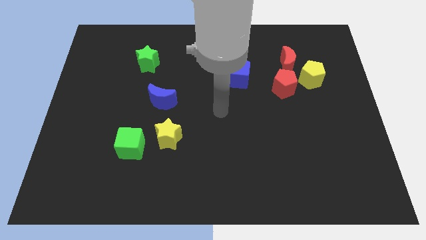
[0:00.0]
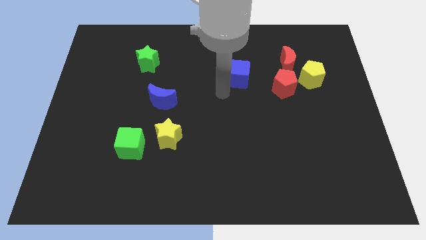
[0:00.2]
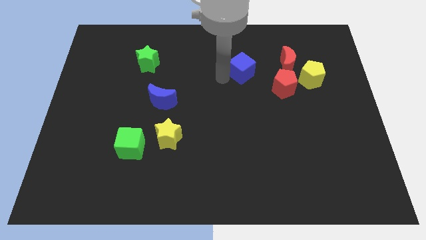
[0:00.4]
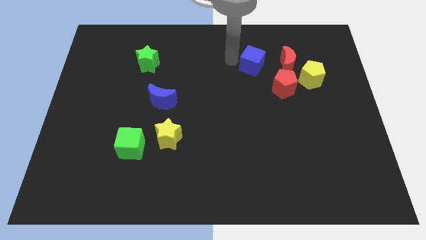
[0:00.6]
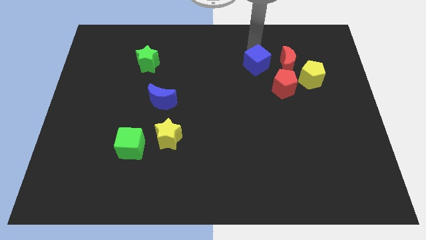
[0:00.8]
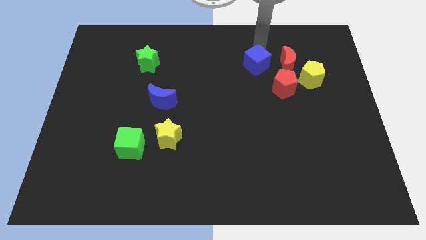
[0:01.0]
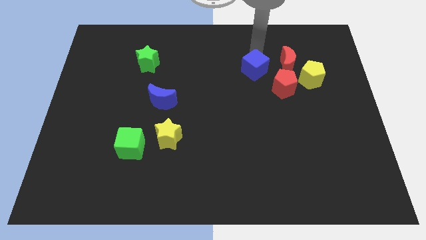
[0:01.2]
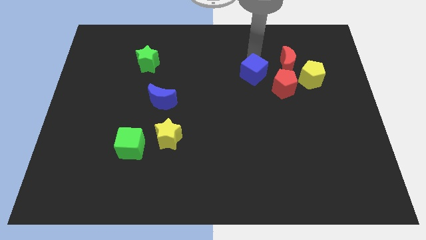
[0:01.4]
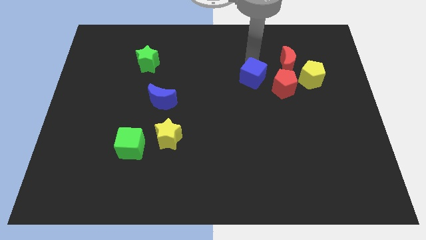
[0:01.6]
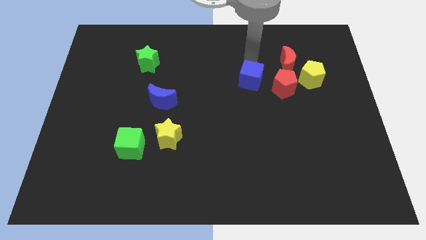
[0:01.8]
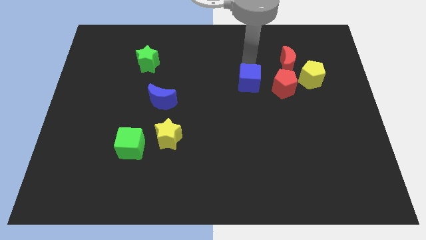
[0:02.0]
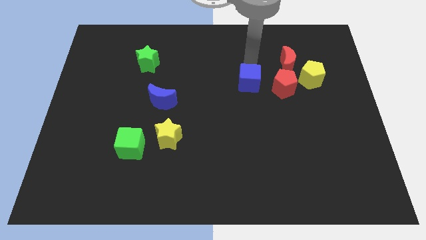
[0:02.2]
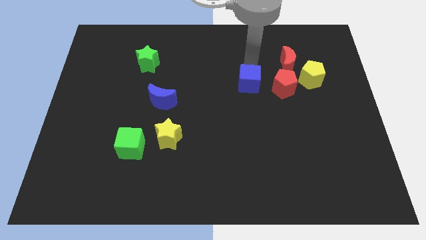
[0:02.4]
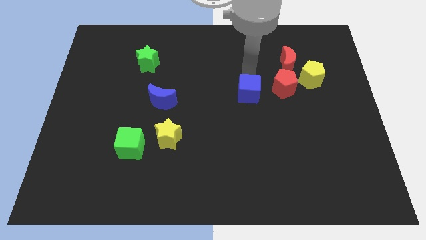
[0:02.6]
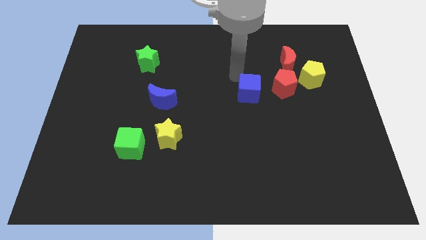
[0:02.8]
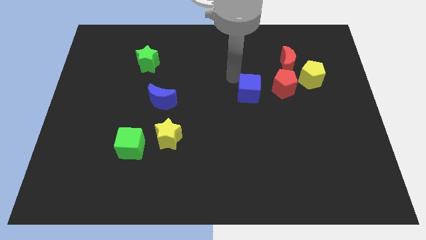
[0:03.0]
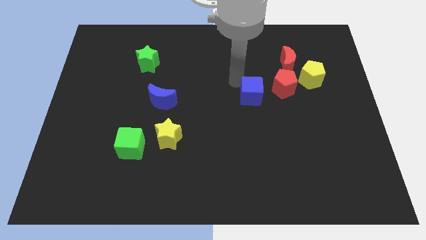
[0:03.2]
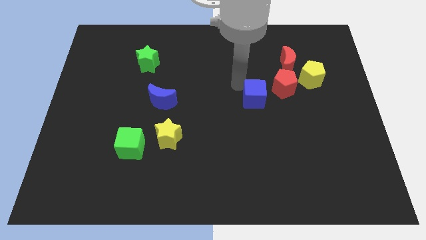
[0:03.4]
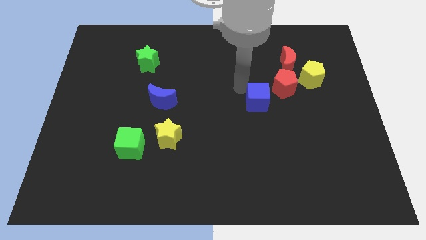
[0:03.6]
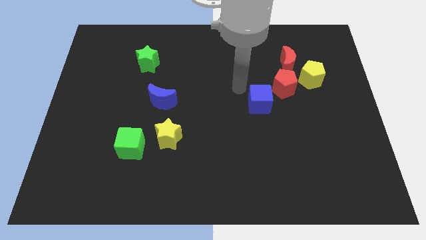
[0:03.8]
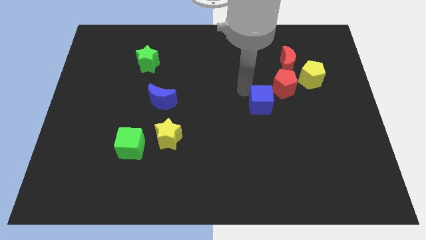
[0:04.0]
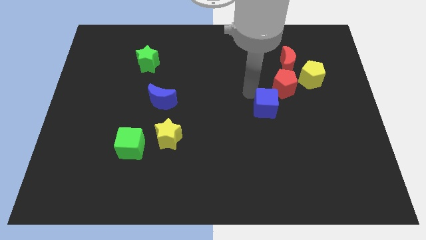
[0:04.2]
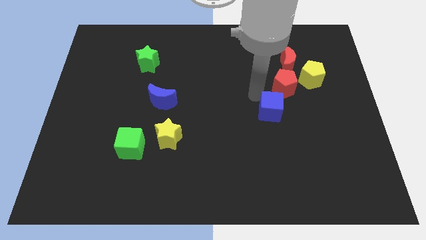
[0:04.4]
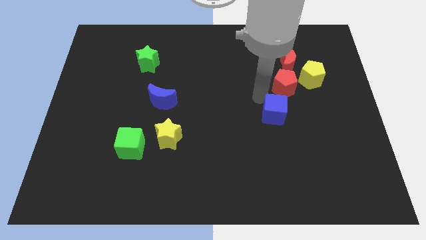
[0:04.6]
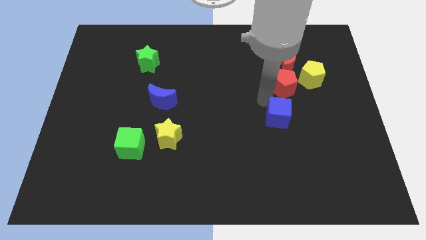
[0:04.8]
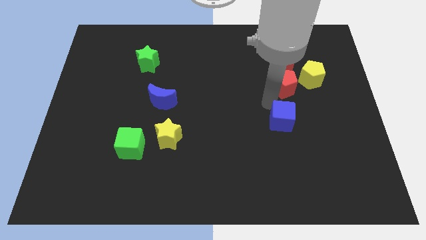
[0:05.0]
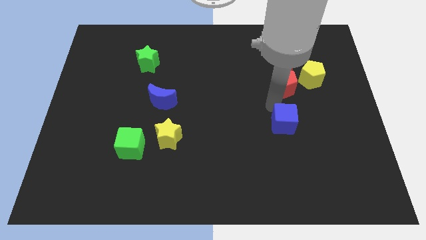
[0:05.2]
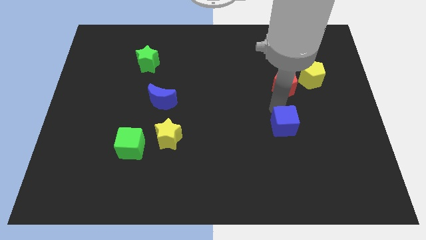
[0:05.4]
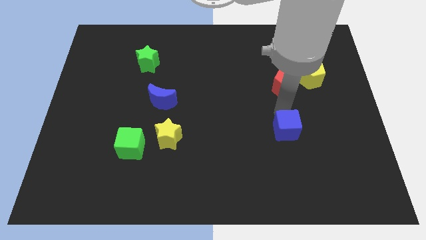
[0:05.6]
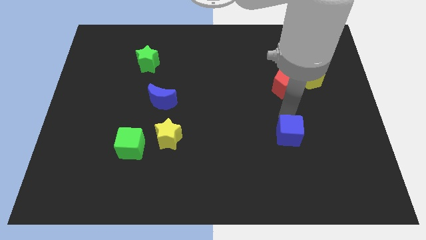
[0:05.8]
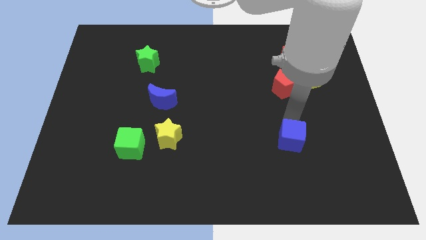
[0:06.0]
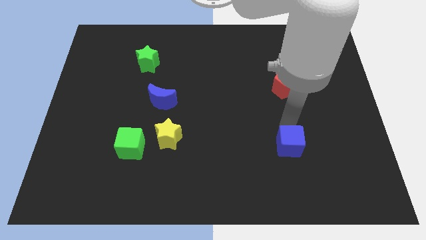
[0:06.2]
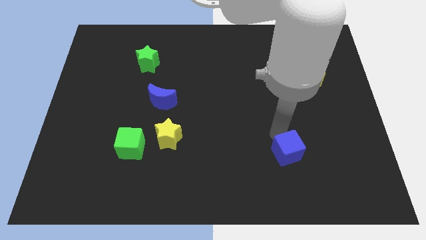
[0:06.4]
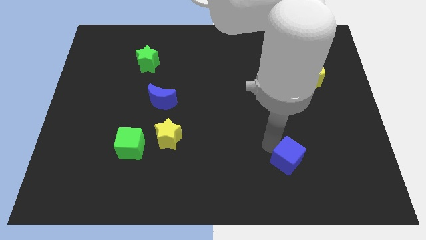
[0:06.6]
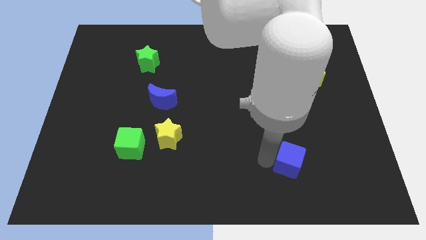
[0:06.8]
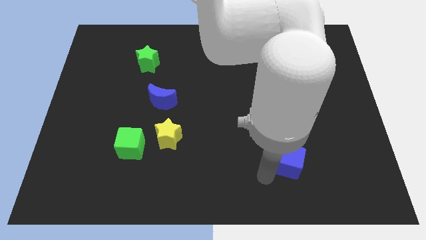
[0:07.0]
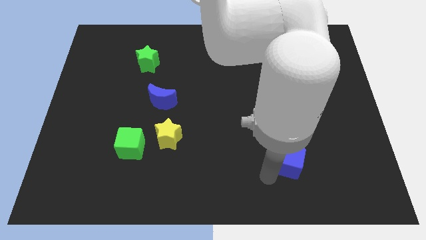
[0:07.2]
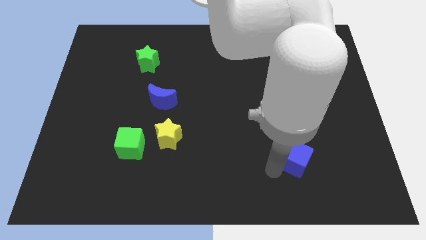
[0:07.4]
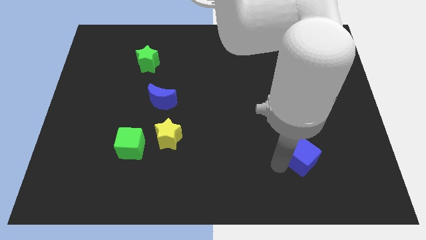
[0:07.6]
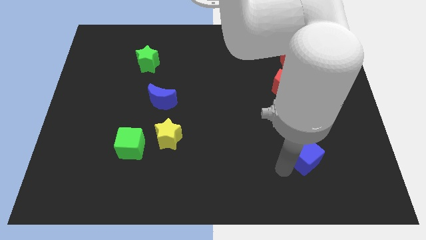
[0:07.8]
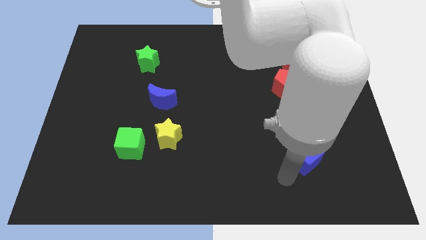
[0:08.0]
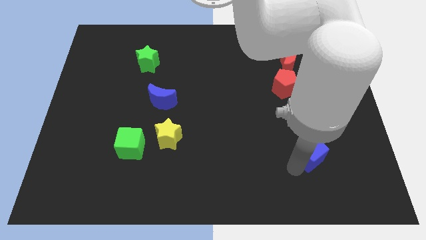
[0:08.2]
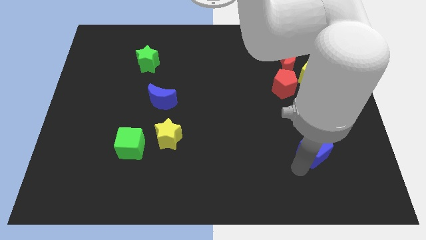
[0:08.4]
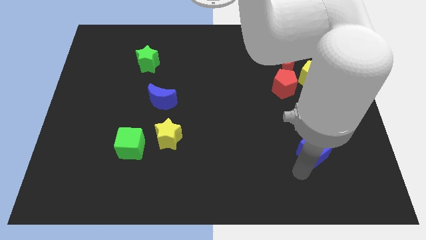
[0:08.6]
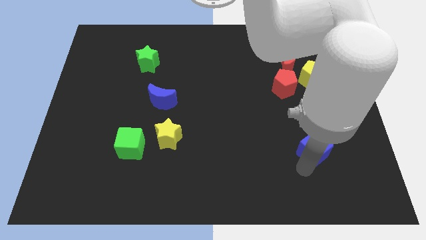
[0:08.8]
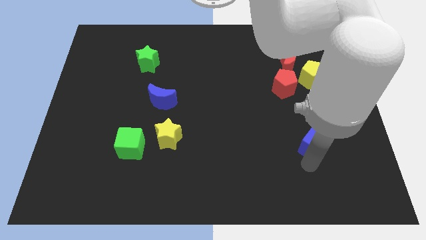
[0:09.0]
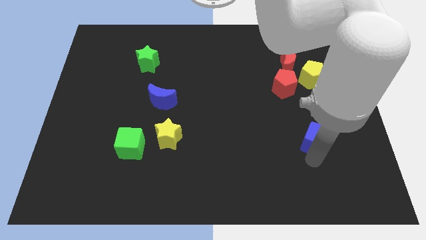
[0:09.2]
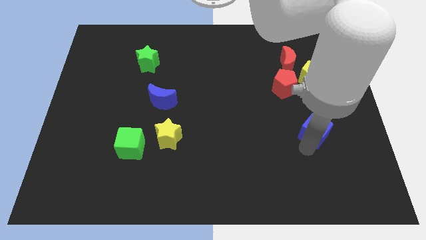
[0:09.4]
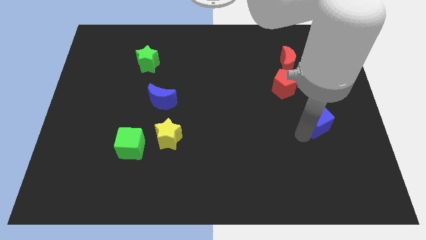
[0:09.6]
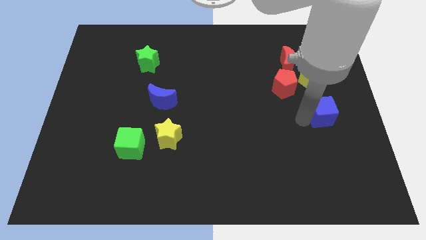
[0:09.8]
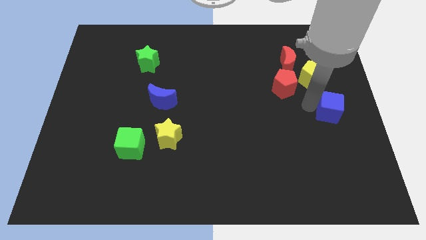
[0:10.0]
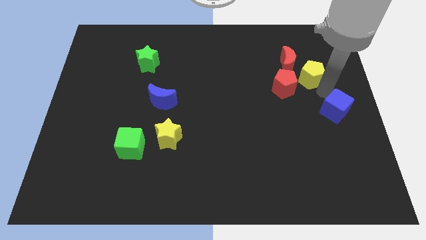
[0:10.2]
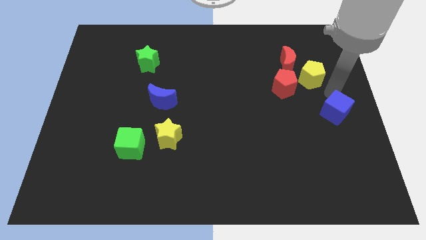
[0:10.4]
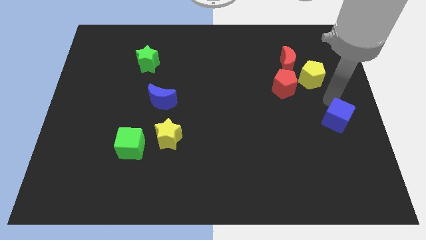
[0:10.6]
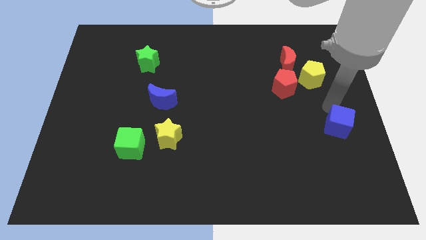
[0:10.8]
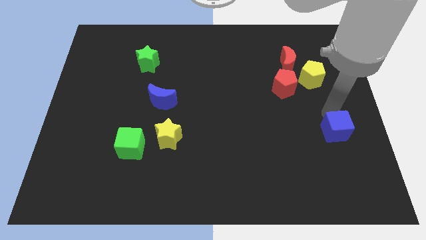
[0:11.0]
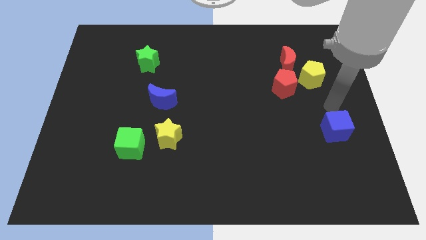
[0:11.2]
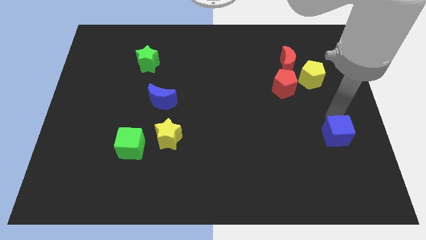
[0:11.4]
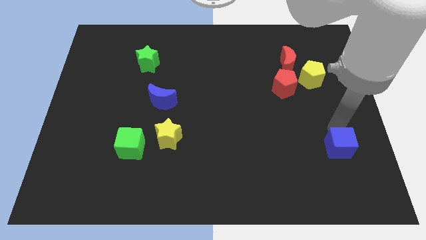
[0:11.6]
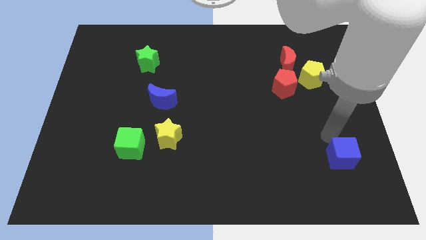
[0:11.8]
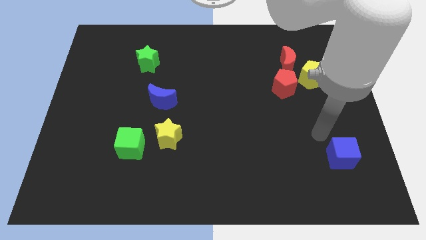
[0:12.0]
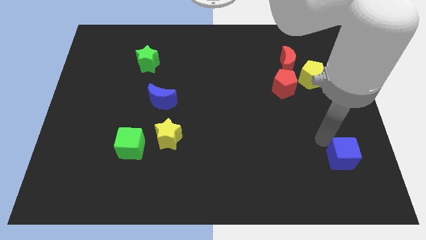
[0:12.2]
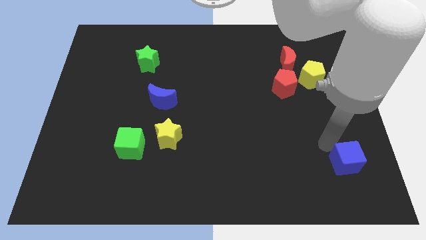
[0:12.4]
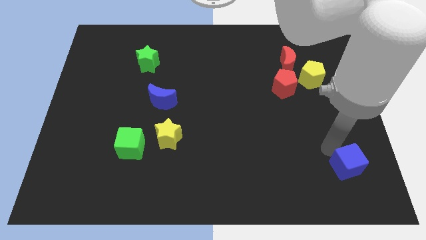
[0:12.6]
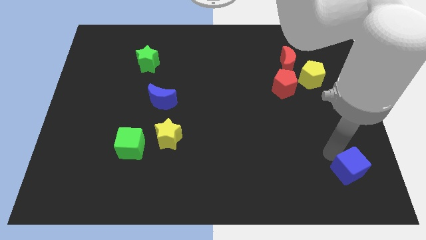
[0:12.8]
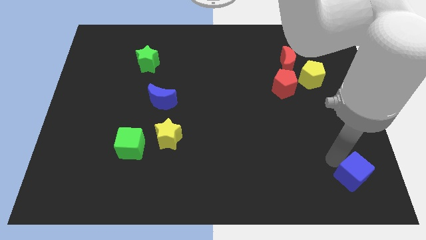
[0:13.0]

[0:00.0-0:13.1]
move the blue cube to the bottom right

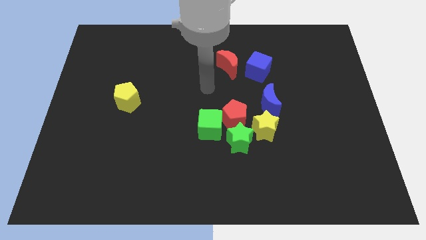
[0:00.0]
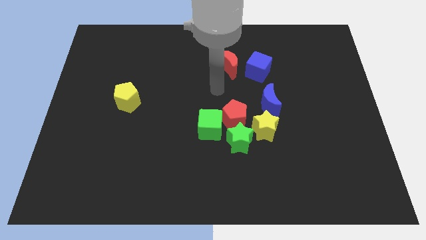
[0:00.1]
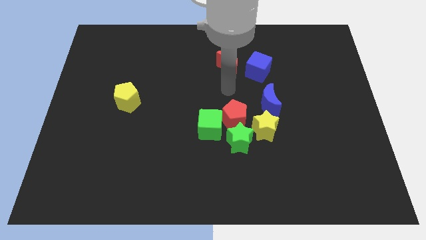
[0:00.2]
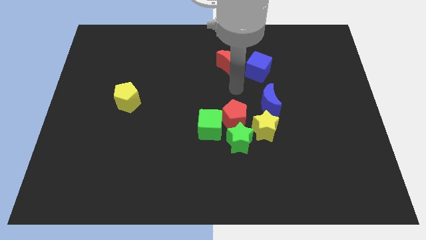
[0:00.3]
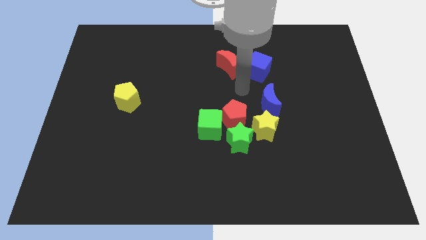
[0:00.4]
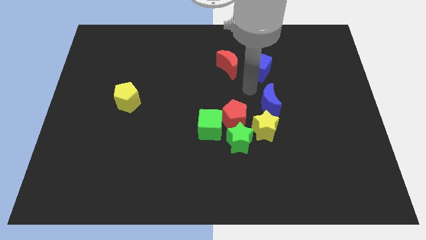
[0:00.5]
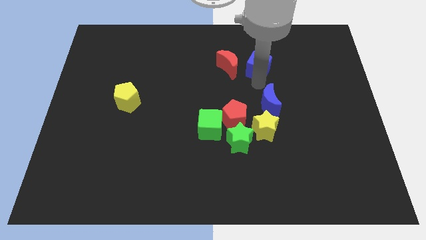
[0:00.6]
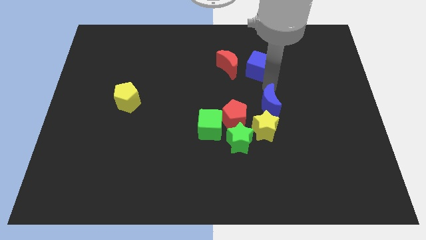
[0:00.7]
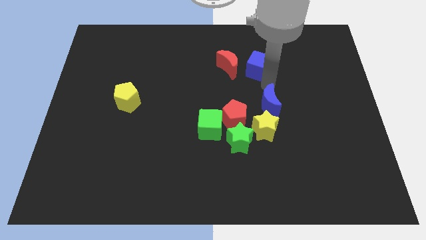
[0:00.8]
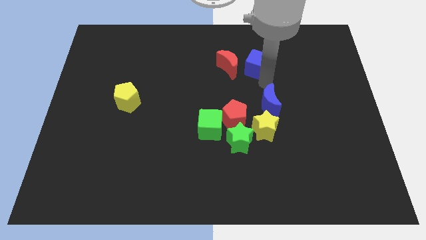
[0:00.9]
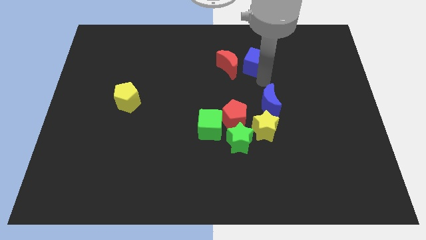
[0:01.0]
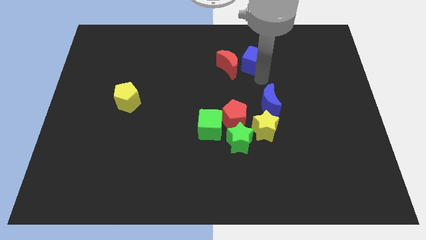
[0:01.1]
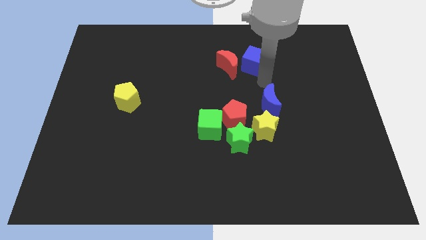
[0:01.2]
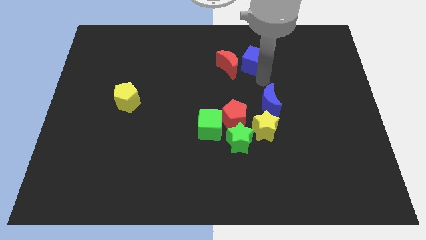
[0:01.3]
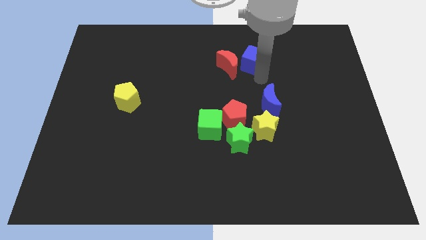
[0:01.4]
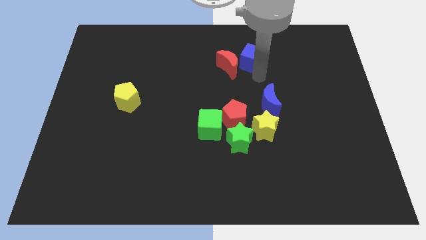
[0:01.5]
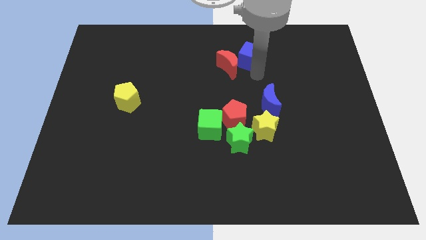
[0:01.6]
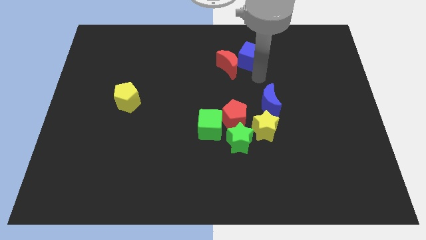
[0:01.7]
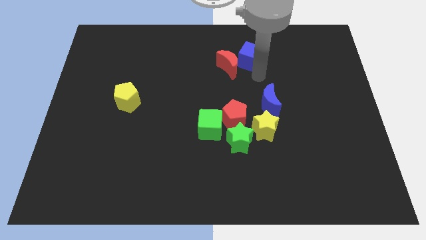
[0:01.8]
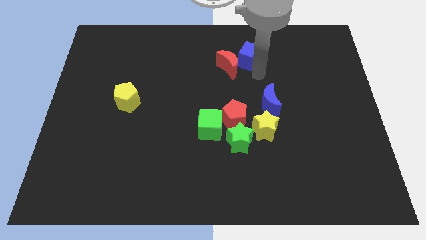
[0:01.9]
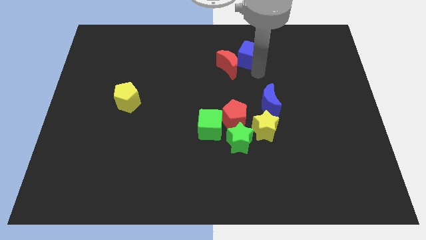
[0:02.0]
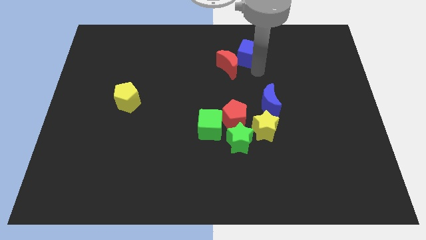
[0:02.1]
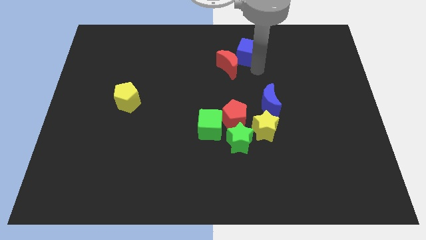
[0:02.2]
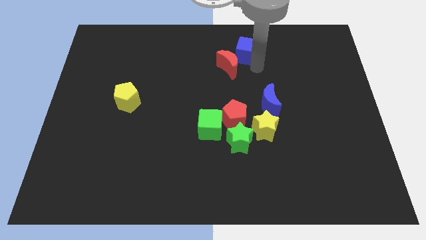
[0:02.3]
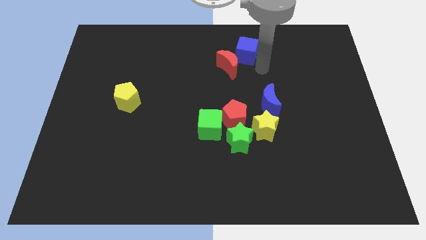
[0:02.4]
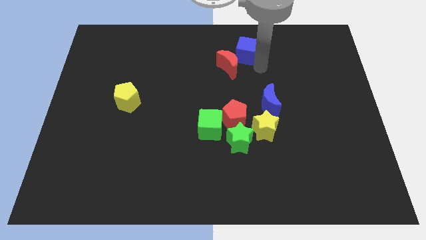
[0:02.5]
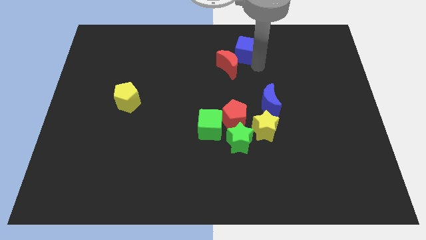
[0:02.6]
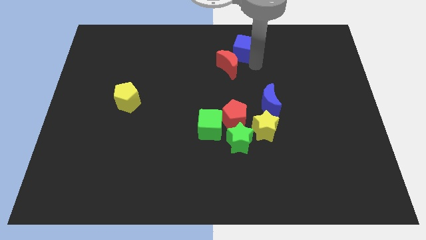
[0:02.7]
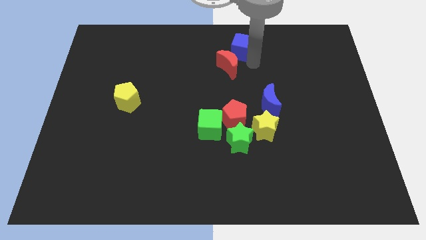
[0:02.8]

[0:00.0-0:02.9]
push the blue cube to the top
